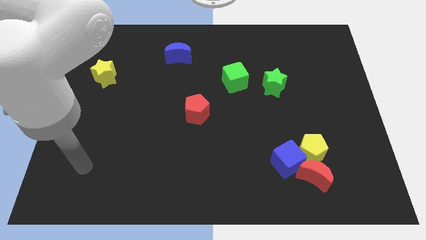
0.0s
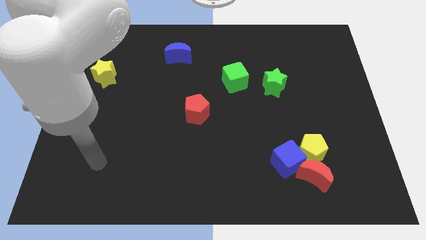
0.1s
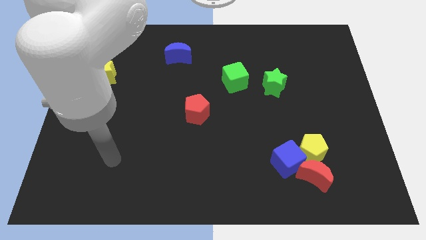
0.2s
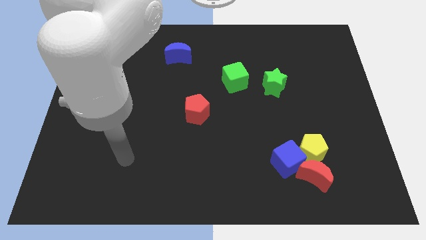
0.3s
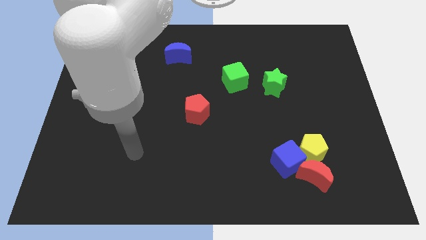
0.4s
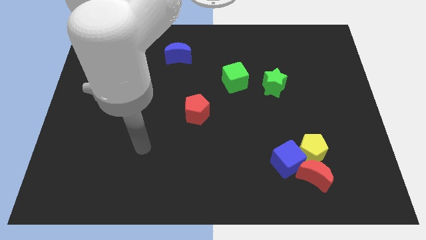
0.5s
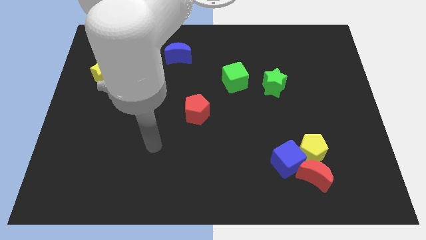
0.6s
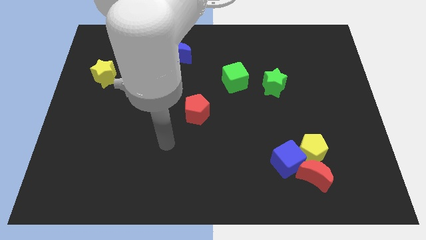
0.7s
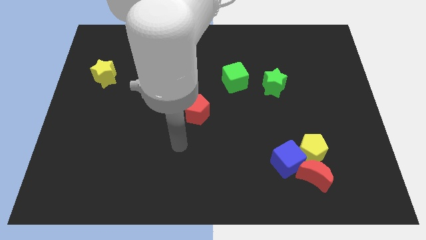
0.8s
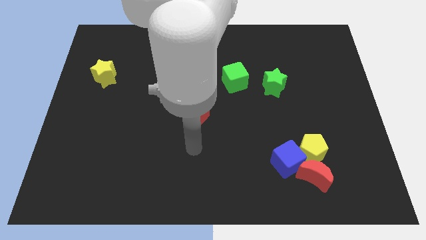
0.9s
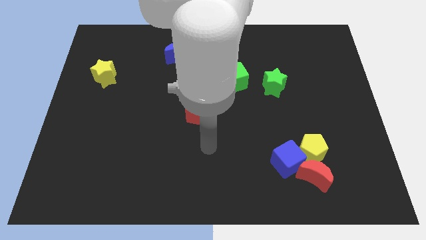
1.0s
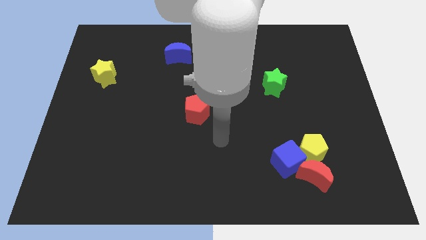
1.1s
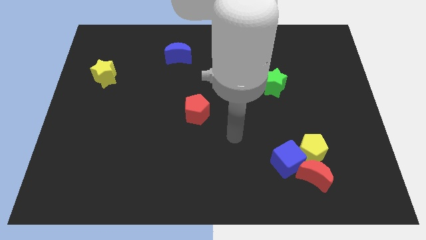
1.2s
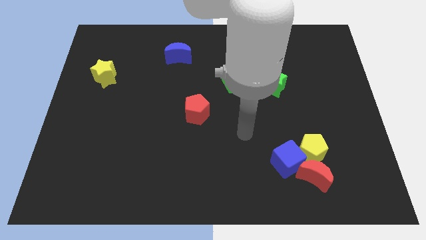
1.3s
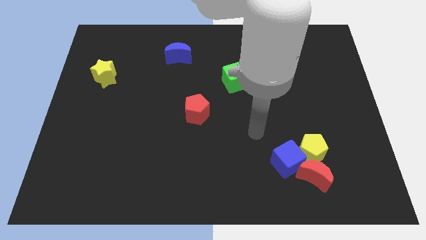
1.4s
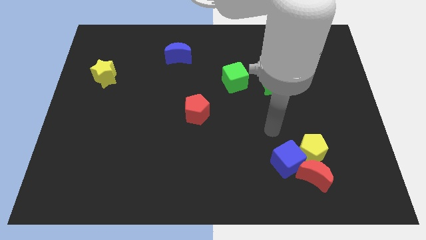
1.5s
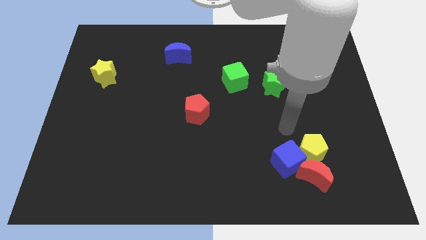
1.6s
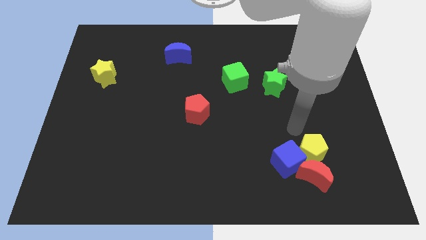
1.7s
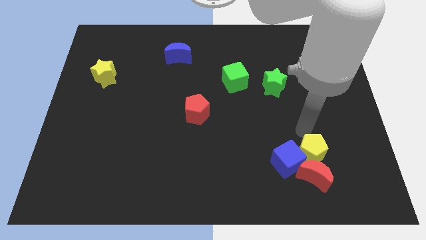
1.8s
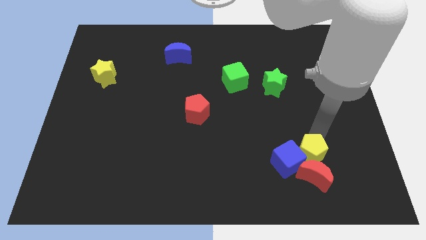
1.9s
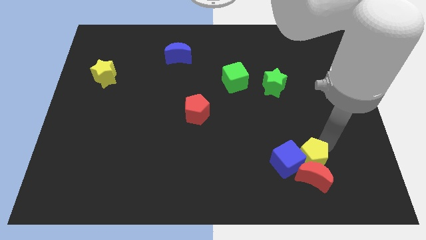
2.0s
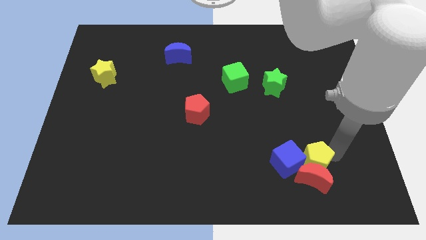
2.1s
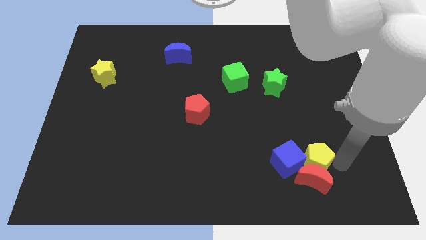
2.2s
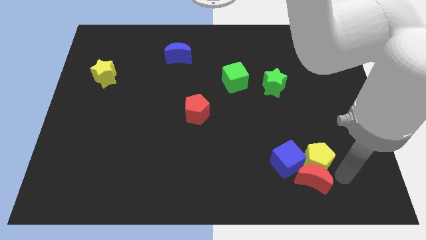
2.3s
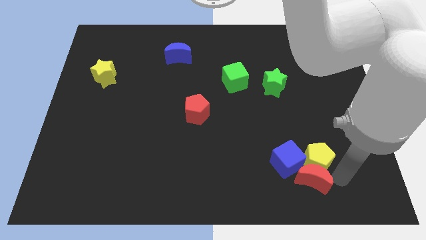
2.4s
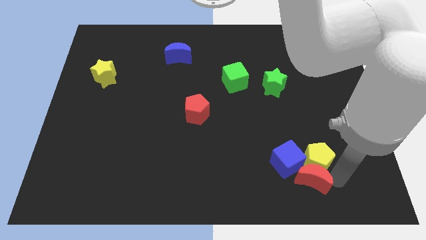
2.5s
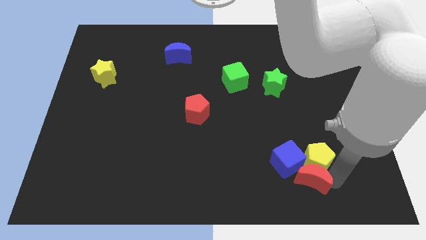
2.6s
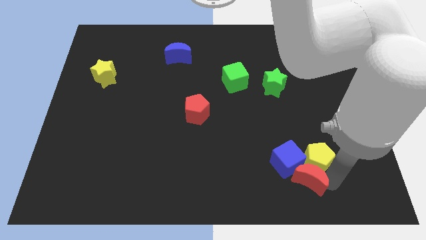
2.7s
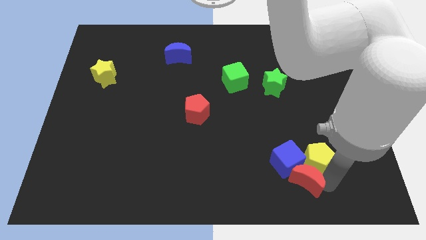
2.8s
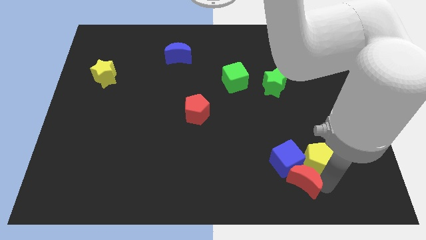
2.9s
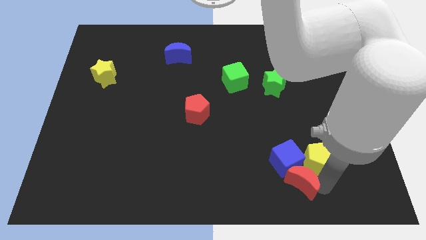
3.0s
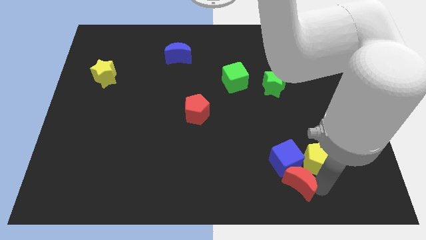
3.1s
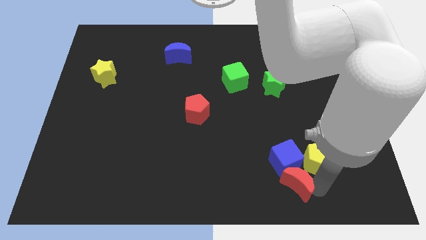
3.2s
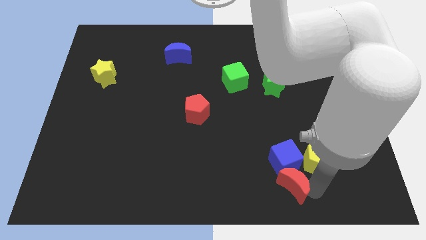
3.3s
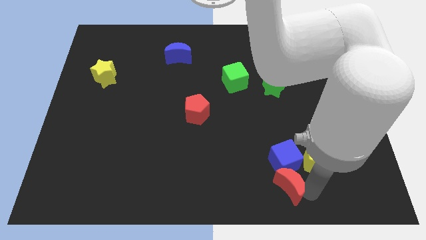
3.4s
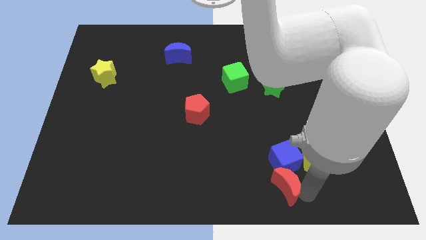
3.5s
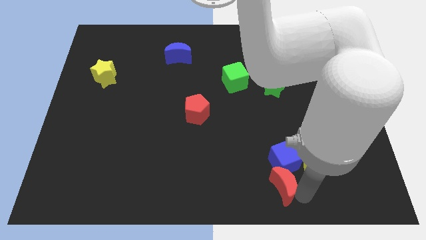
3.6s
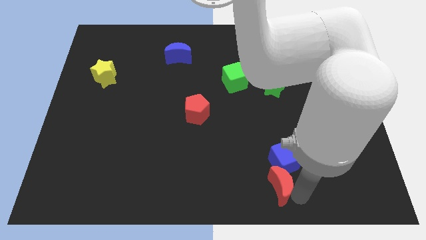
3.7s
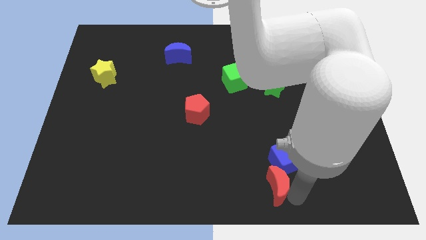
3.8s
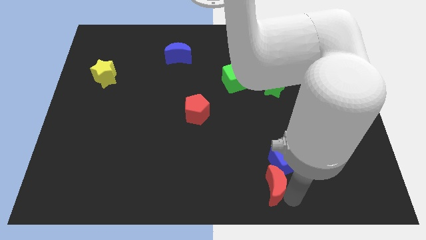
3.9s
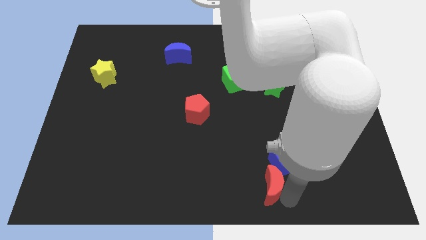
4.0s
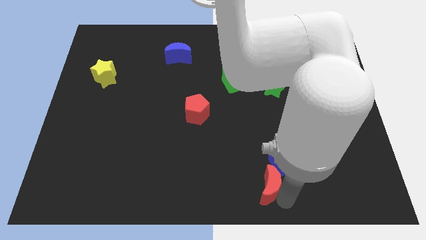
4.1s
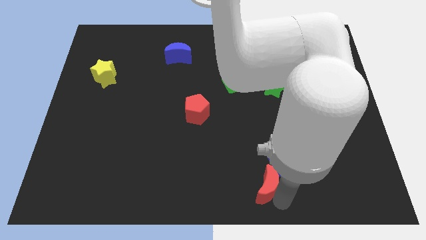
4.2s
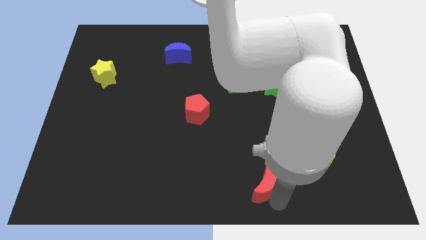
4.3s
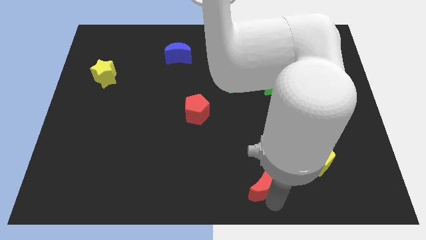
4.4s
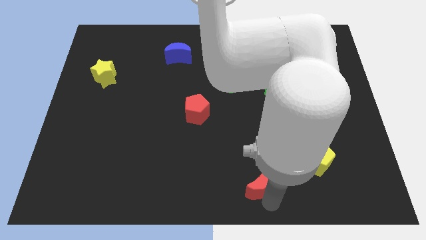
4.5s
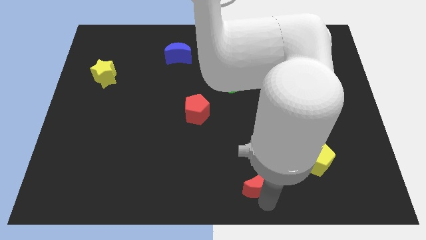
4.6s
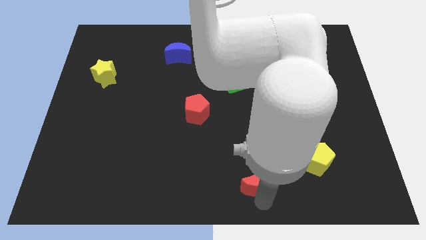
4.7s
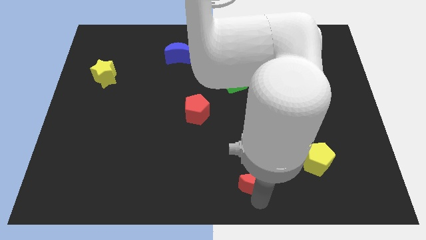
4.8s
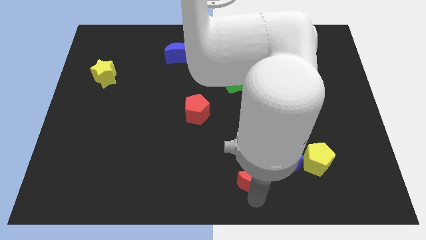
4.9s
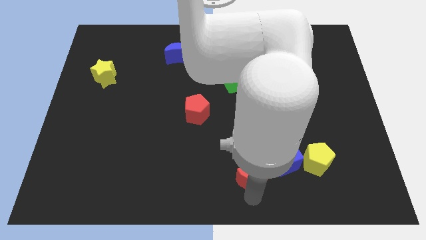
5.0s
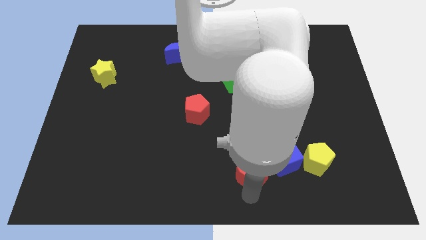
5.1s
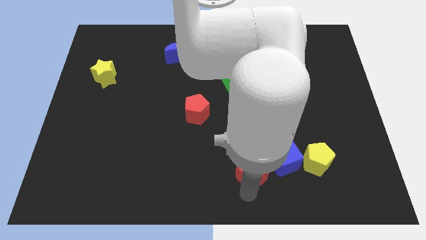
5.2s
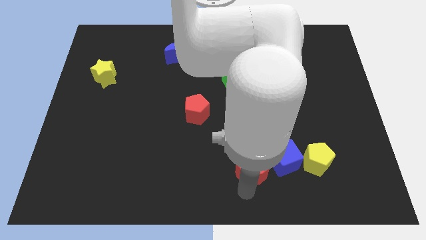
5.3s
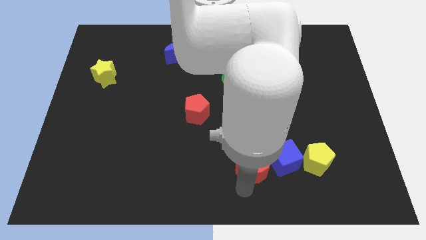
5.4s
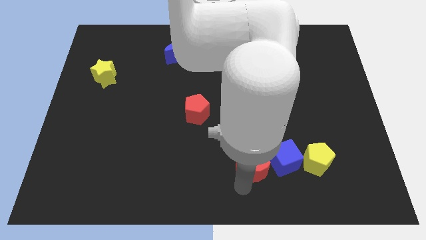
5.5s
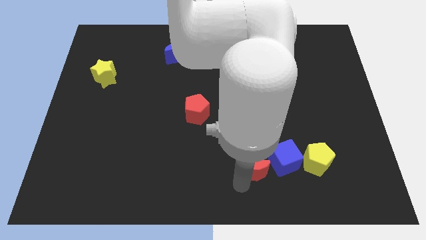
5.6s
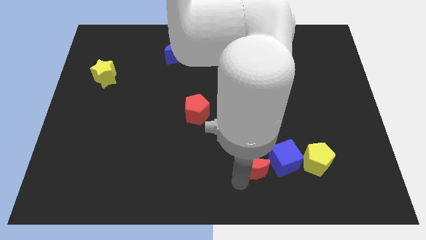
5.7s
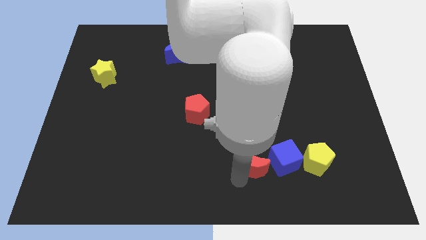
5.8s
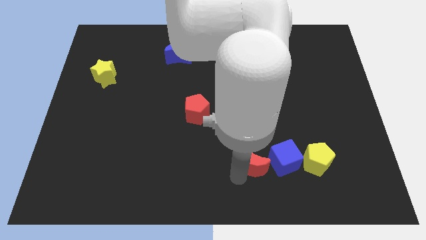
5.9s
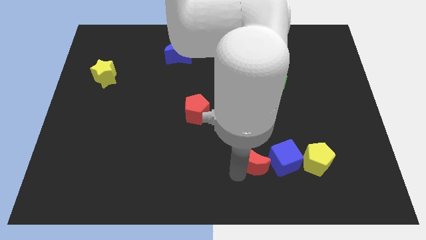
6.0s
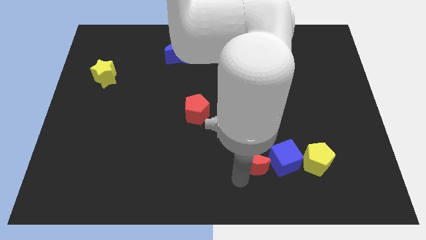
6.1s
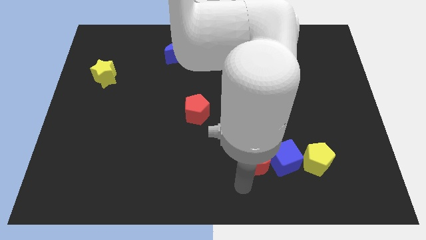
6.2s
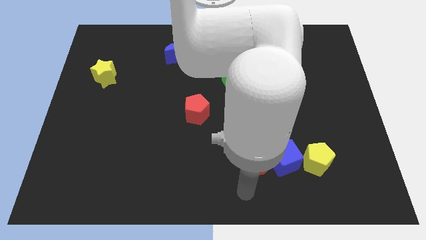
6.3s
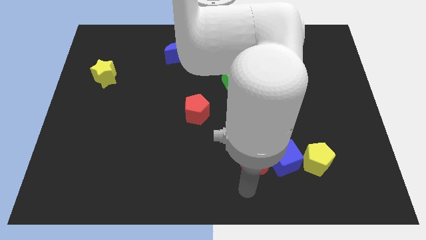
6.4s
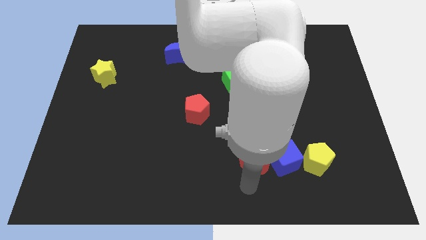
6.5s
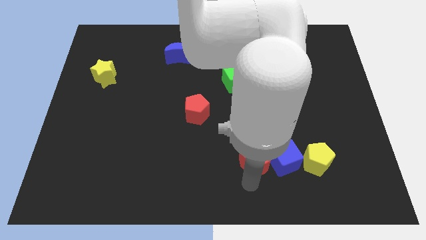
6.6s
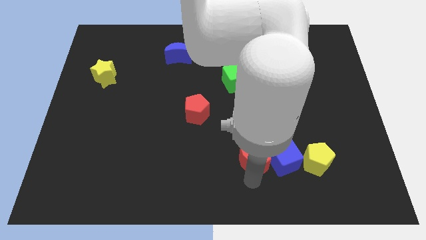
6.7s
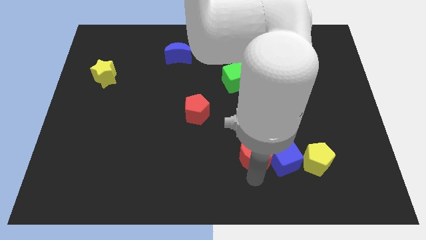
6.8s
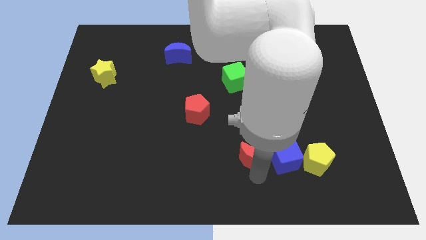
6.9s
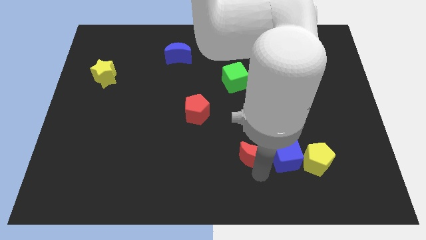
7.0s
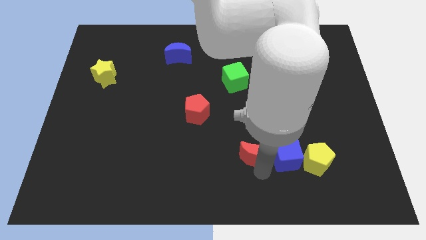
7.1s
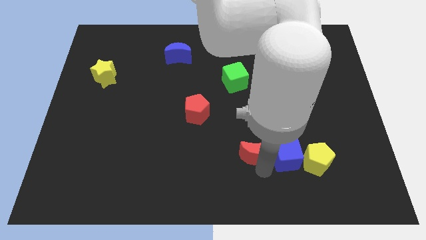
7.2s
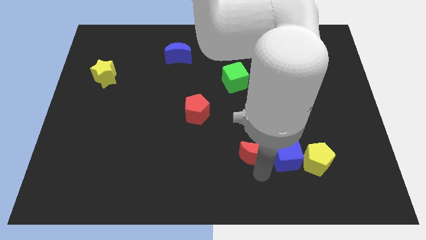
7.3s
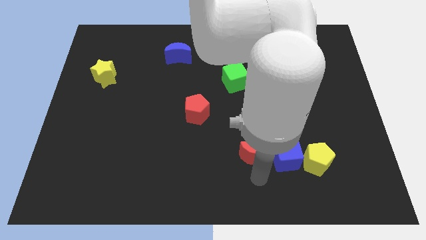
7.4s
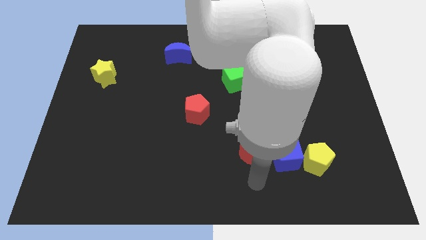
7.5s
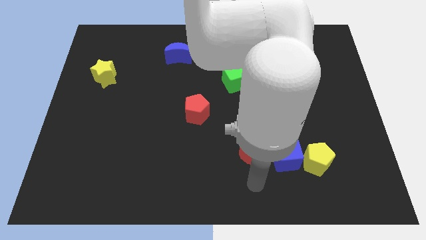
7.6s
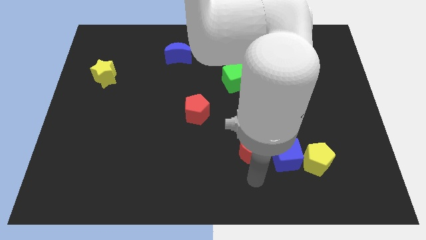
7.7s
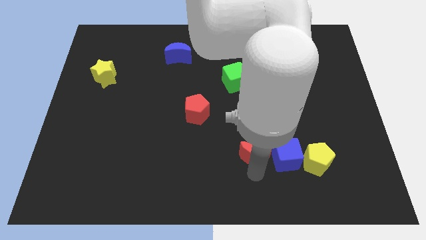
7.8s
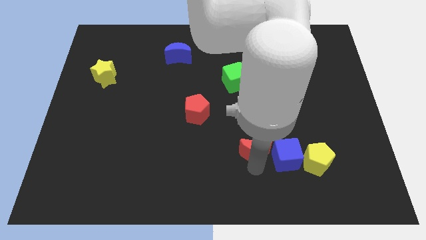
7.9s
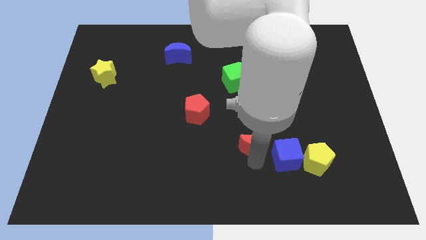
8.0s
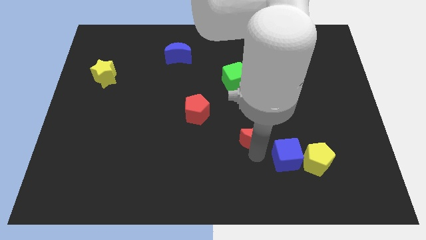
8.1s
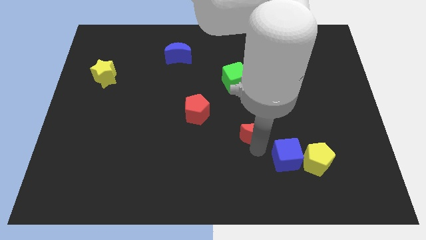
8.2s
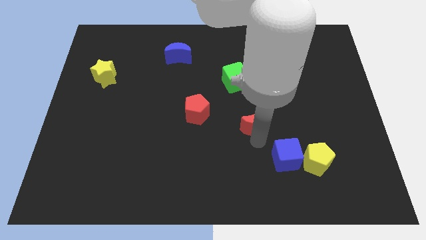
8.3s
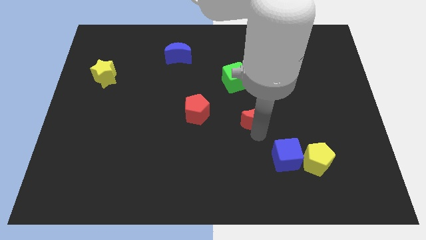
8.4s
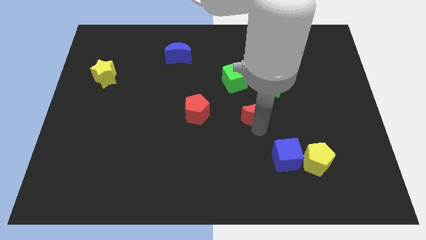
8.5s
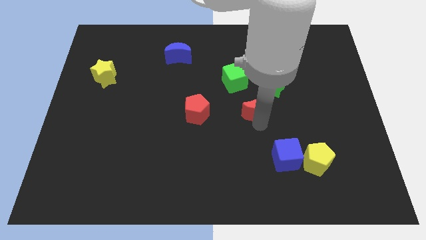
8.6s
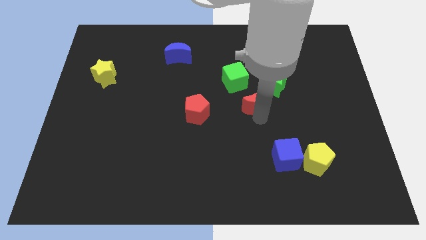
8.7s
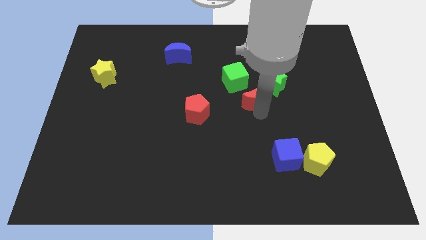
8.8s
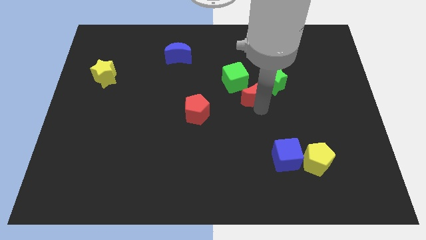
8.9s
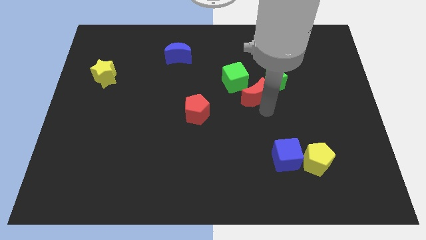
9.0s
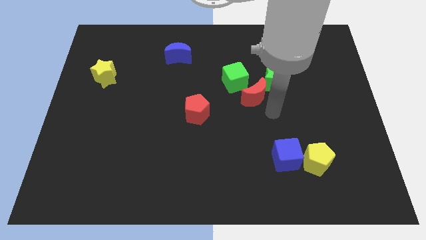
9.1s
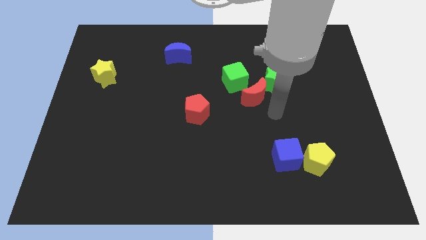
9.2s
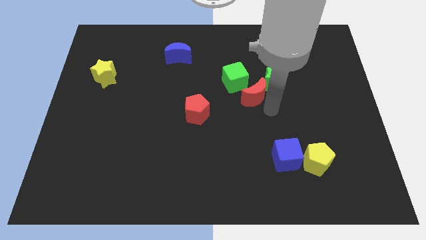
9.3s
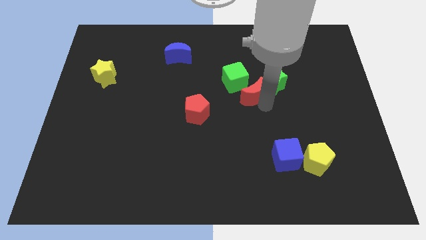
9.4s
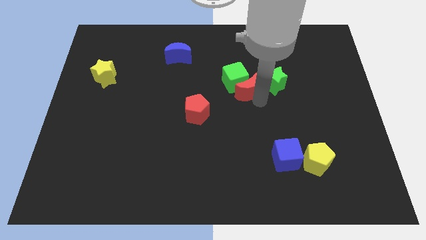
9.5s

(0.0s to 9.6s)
slide the red moon next to the green cube
